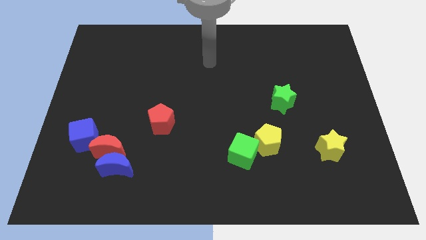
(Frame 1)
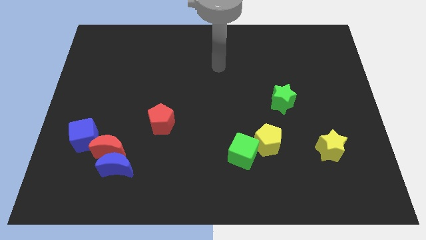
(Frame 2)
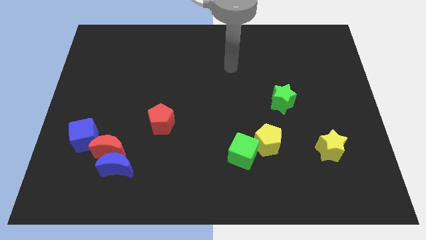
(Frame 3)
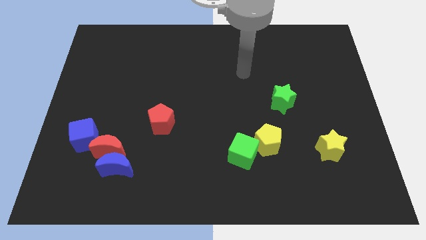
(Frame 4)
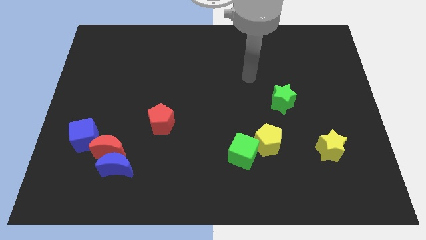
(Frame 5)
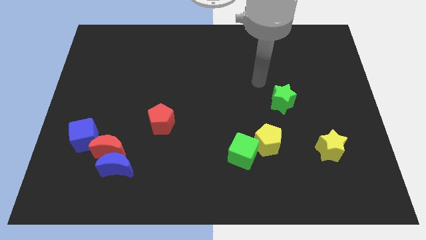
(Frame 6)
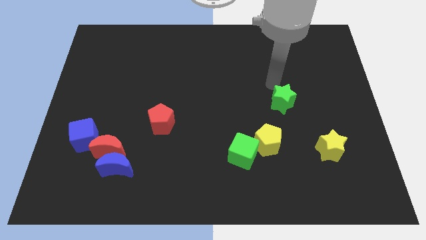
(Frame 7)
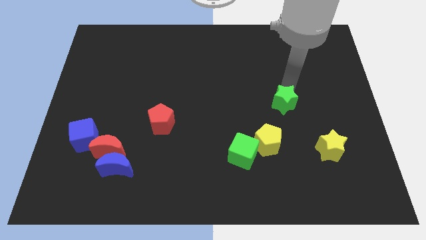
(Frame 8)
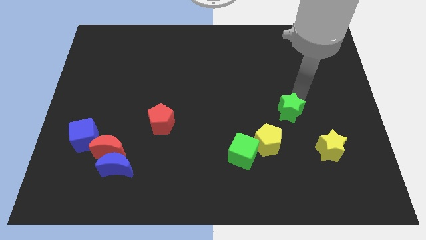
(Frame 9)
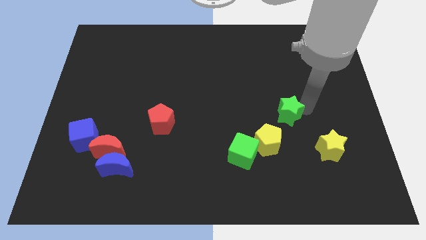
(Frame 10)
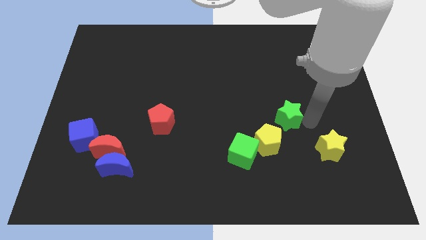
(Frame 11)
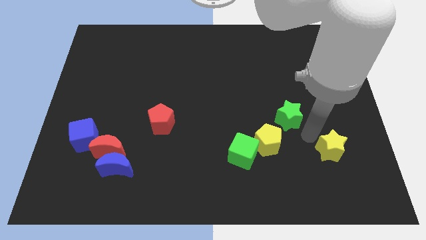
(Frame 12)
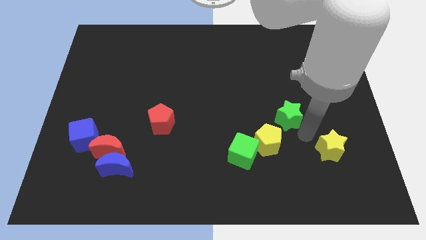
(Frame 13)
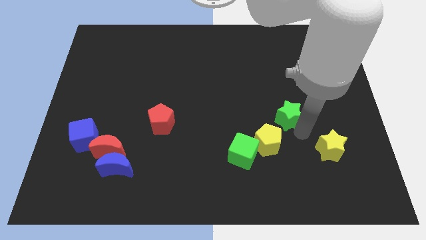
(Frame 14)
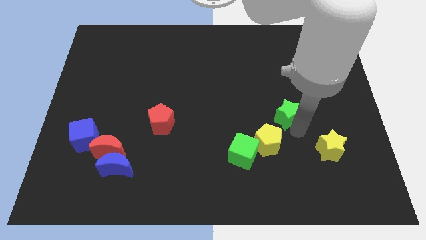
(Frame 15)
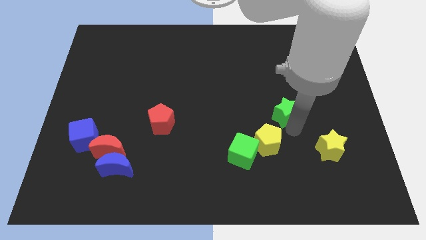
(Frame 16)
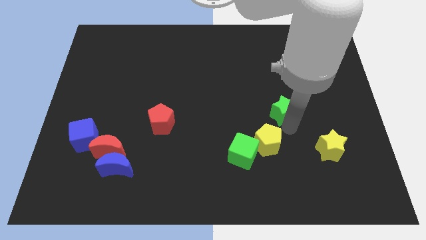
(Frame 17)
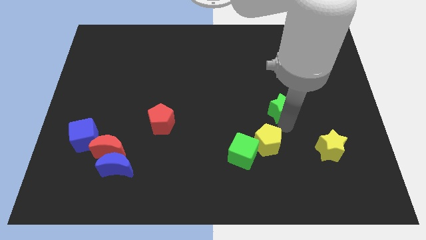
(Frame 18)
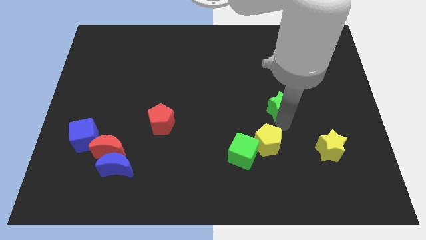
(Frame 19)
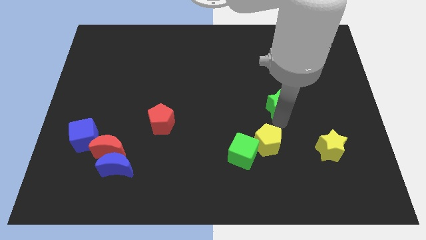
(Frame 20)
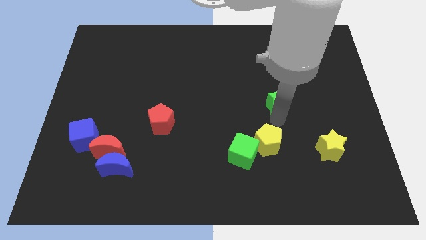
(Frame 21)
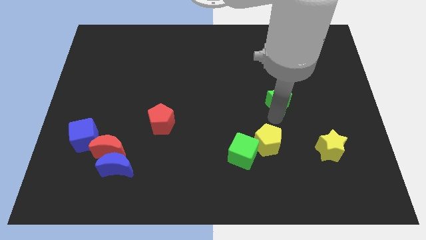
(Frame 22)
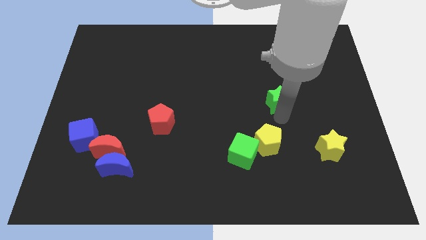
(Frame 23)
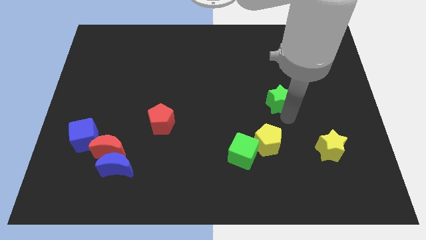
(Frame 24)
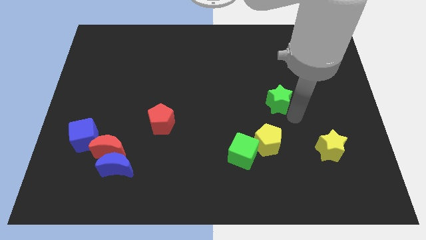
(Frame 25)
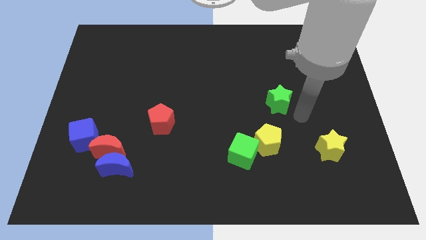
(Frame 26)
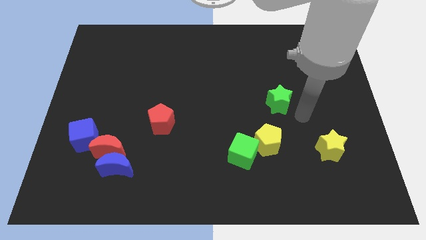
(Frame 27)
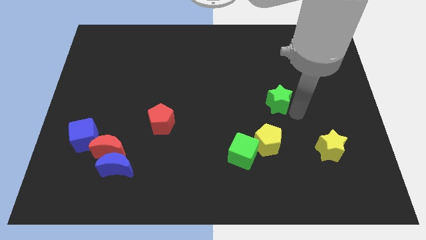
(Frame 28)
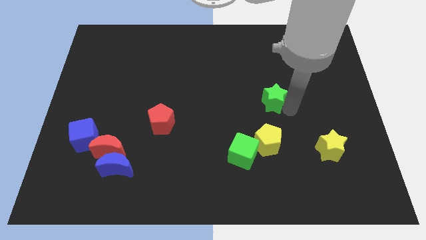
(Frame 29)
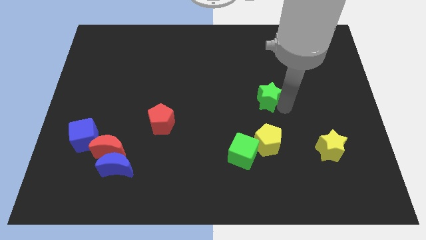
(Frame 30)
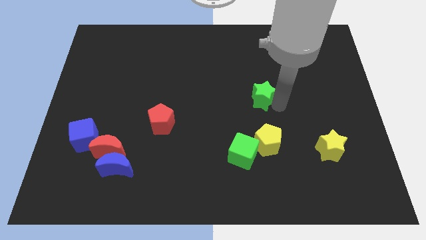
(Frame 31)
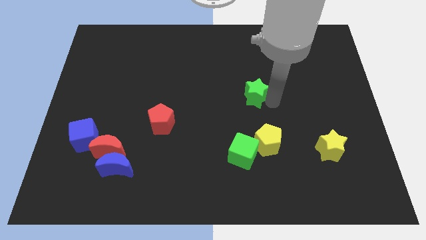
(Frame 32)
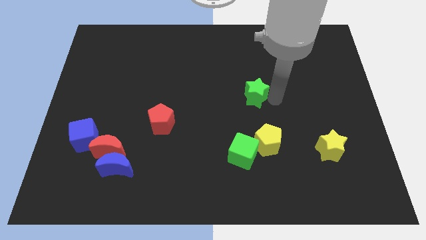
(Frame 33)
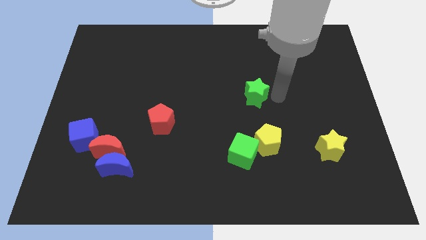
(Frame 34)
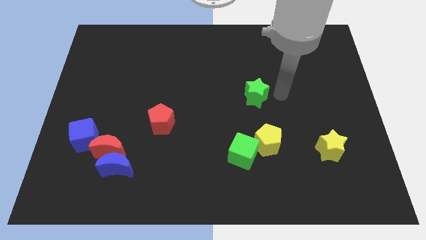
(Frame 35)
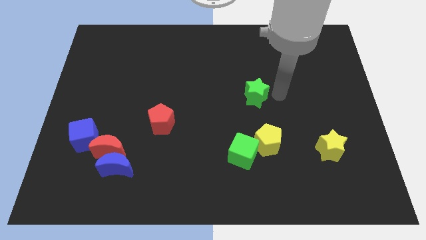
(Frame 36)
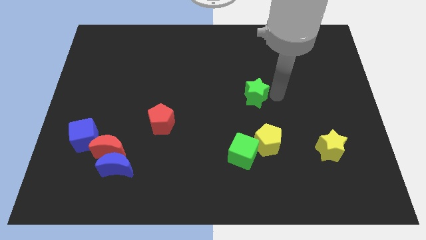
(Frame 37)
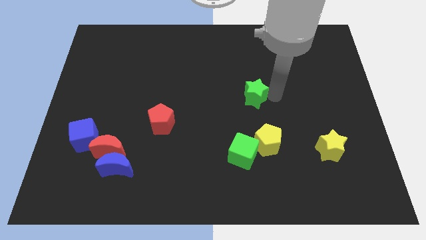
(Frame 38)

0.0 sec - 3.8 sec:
push the green star to the left a little bit

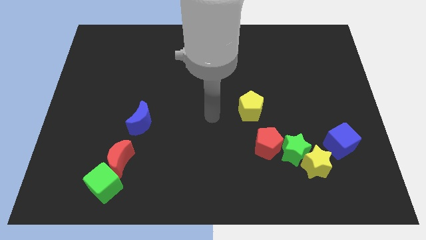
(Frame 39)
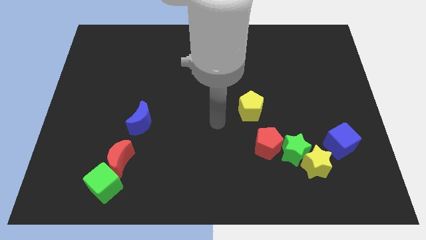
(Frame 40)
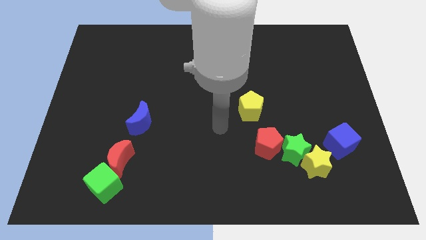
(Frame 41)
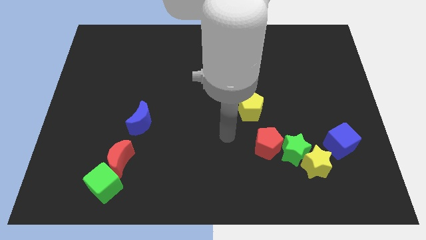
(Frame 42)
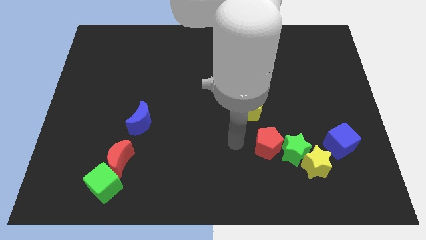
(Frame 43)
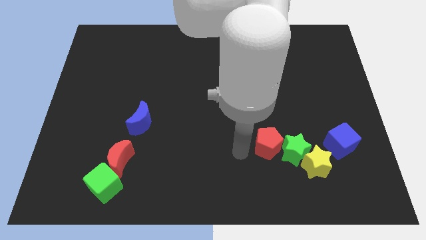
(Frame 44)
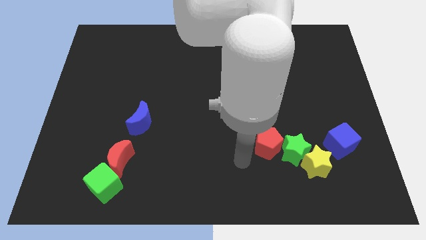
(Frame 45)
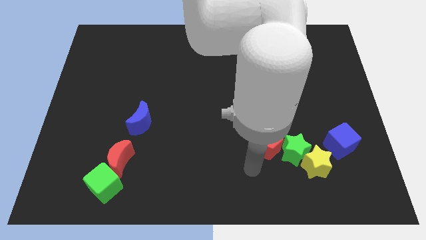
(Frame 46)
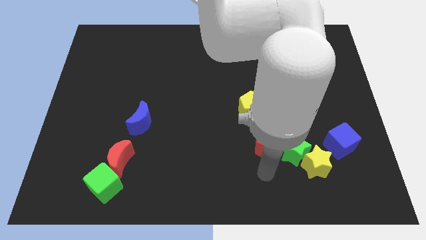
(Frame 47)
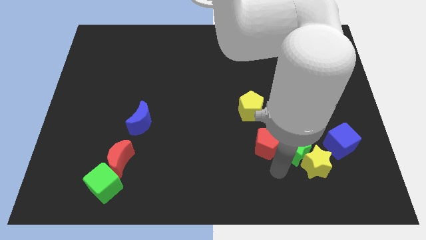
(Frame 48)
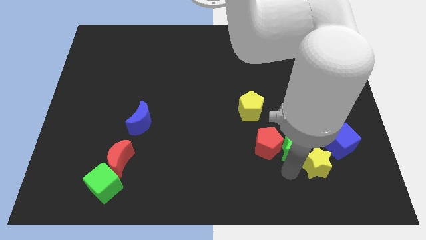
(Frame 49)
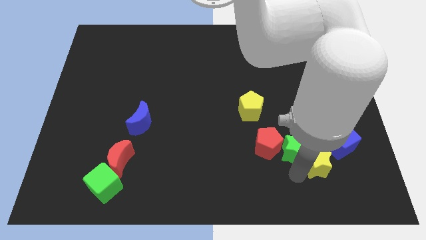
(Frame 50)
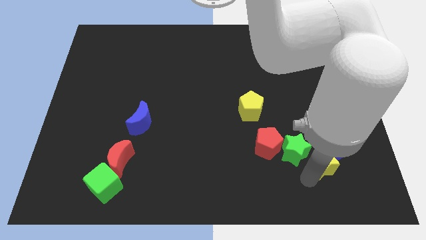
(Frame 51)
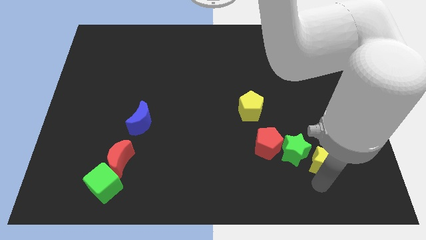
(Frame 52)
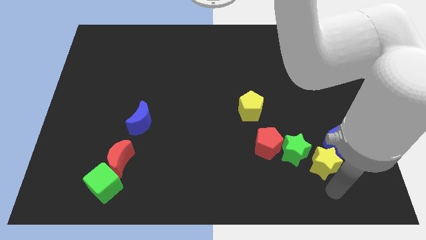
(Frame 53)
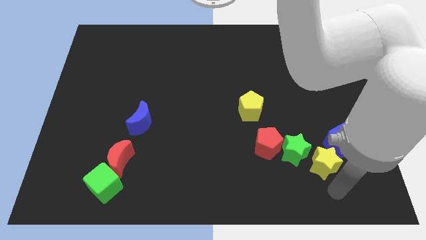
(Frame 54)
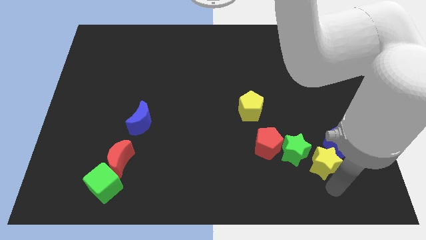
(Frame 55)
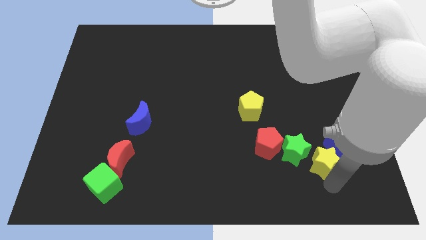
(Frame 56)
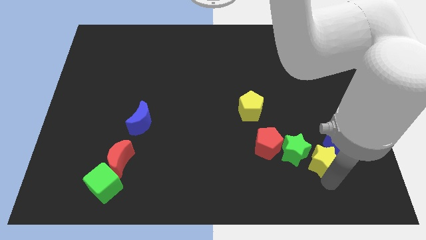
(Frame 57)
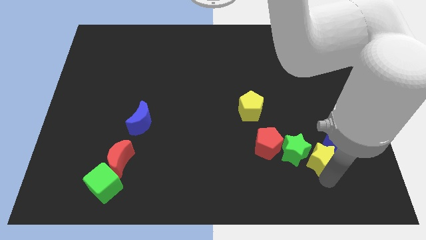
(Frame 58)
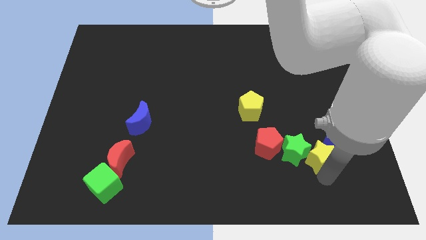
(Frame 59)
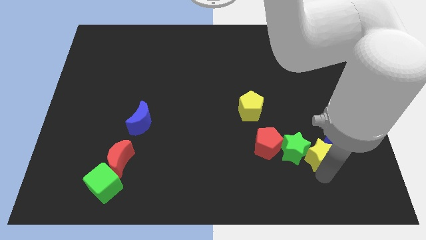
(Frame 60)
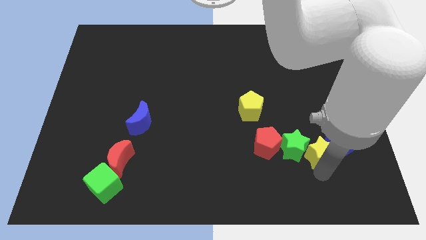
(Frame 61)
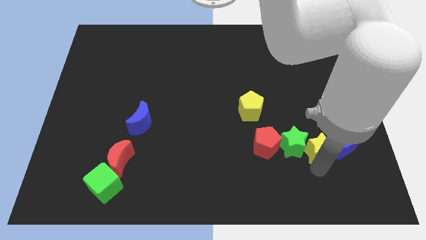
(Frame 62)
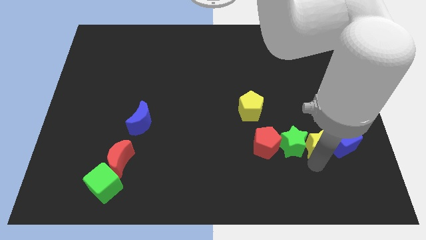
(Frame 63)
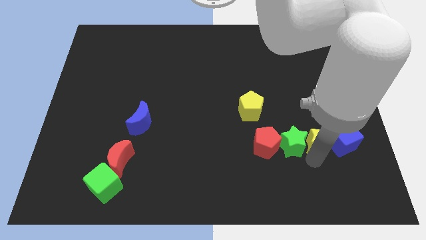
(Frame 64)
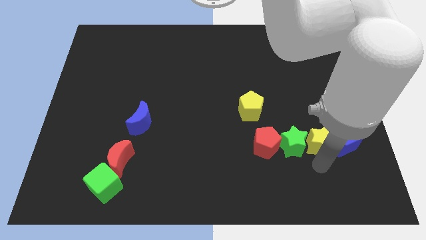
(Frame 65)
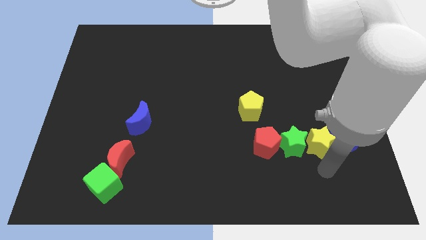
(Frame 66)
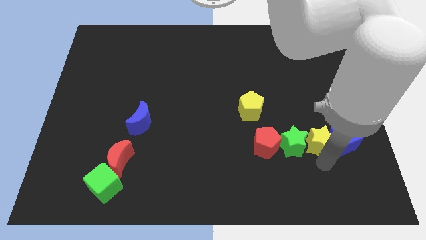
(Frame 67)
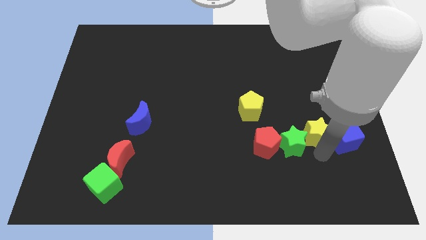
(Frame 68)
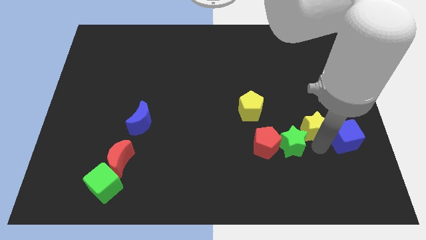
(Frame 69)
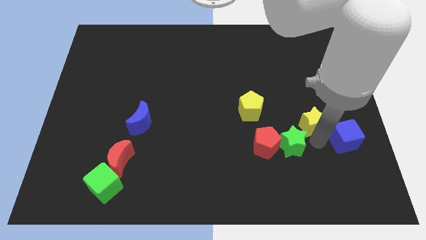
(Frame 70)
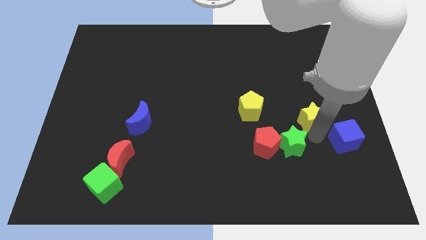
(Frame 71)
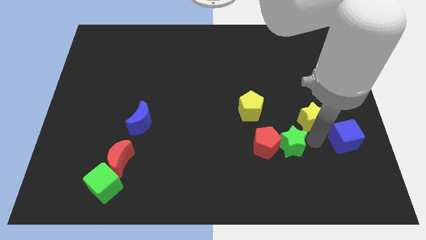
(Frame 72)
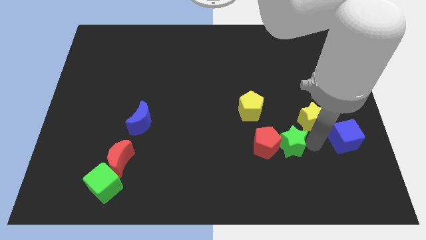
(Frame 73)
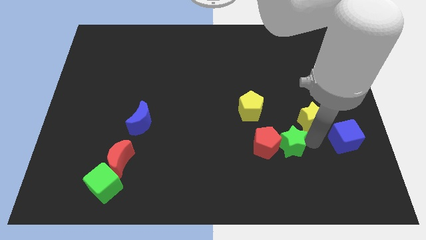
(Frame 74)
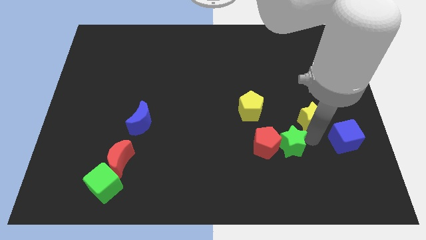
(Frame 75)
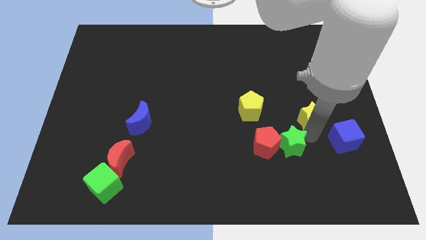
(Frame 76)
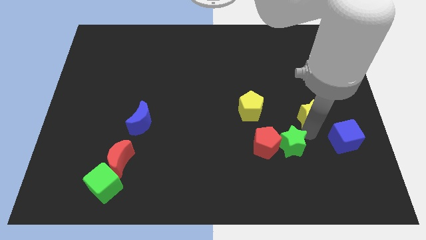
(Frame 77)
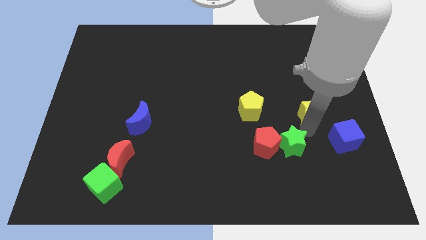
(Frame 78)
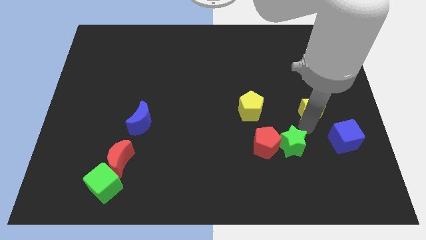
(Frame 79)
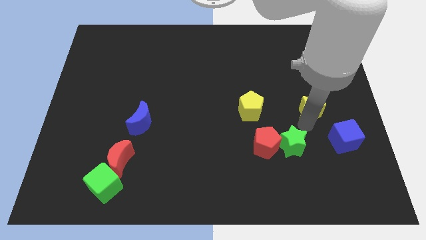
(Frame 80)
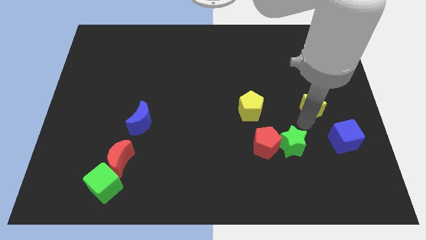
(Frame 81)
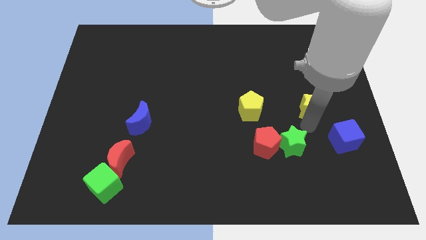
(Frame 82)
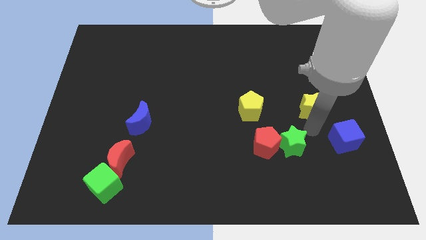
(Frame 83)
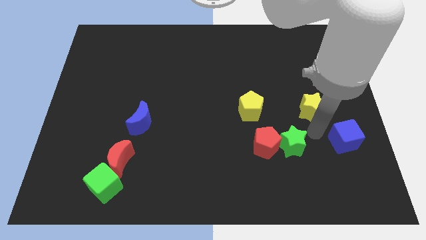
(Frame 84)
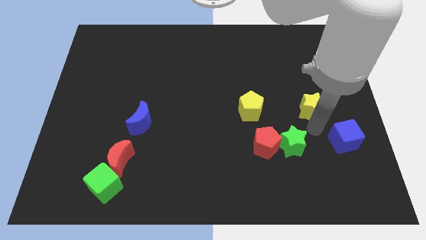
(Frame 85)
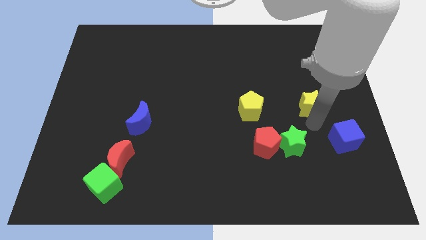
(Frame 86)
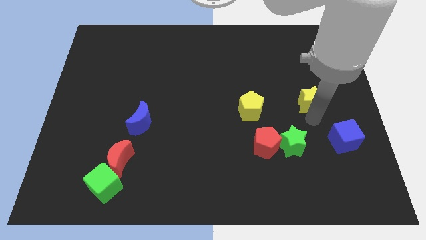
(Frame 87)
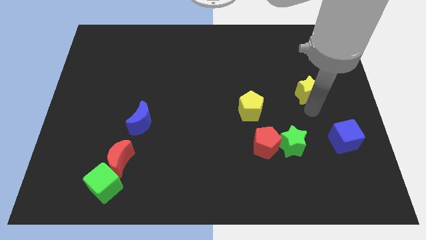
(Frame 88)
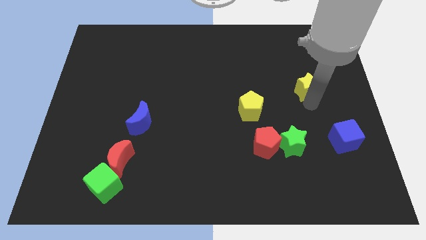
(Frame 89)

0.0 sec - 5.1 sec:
push the yellow star up
